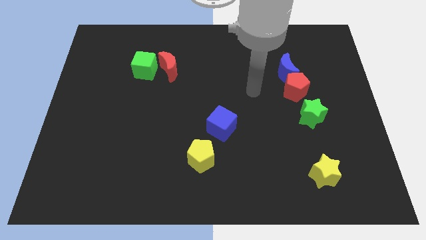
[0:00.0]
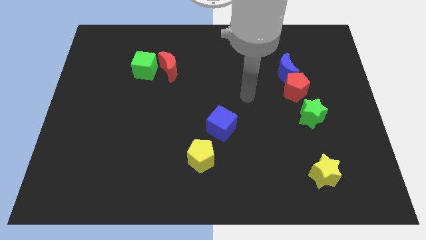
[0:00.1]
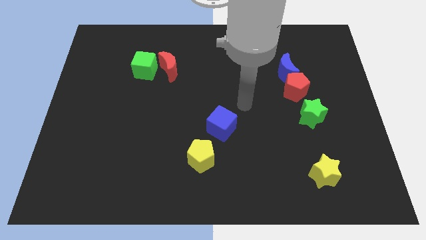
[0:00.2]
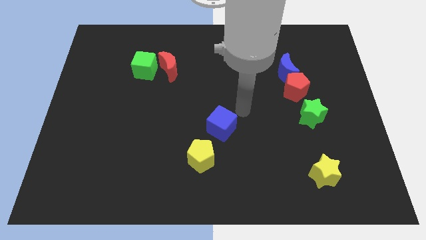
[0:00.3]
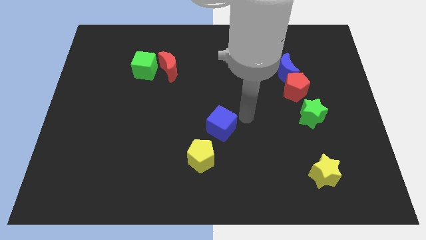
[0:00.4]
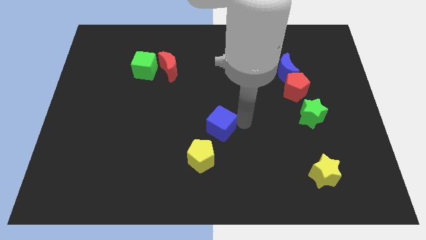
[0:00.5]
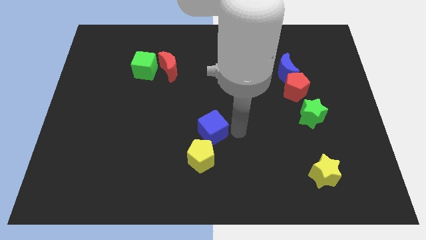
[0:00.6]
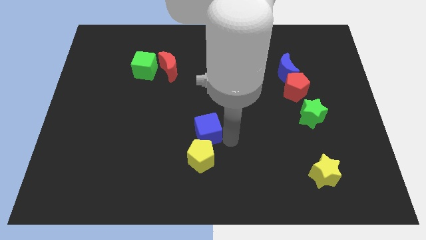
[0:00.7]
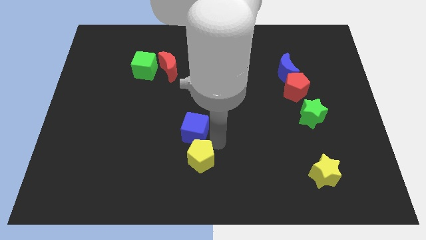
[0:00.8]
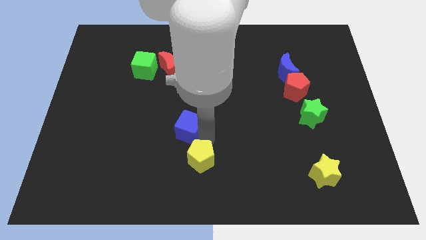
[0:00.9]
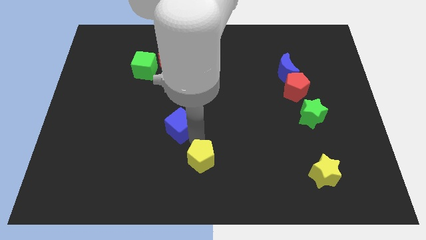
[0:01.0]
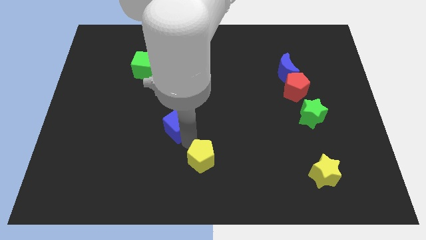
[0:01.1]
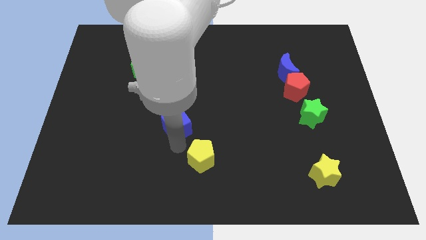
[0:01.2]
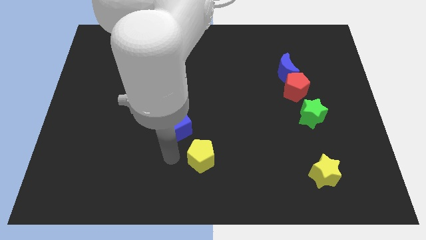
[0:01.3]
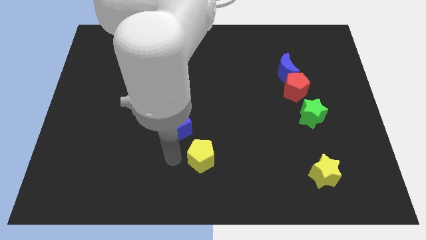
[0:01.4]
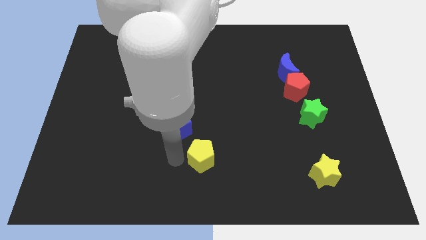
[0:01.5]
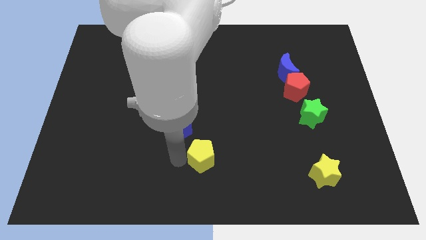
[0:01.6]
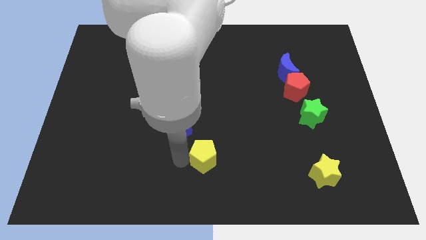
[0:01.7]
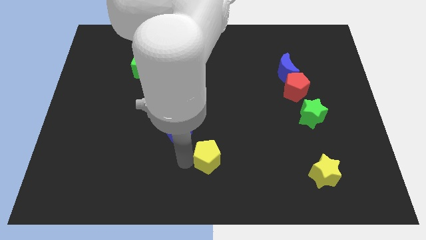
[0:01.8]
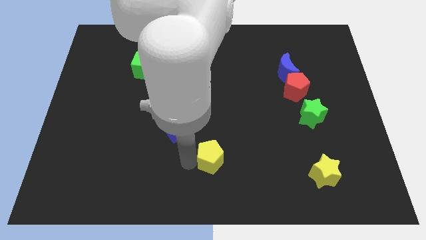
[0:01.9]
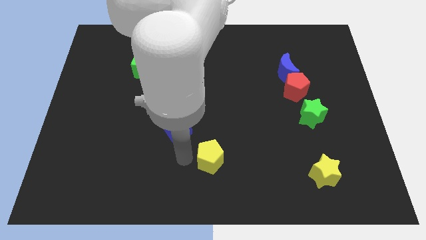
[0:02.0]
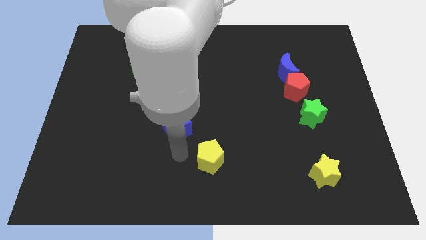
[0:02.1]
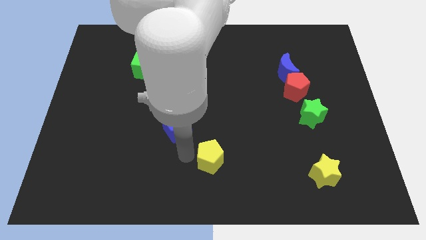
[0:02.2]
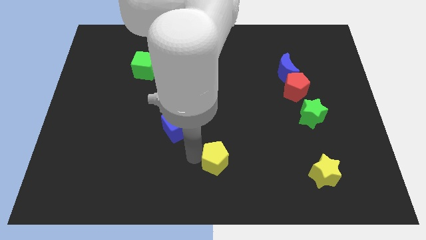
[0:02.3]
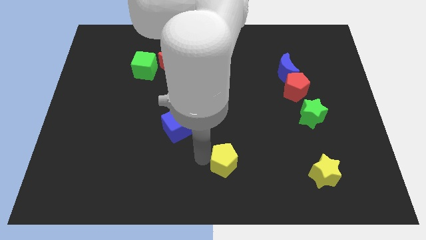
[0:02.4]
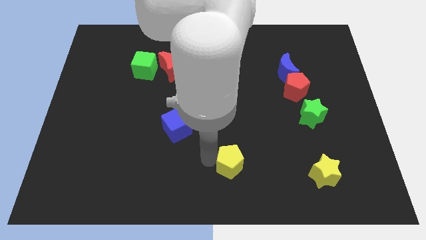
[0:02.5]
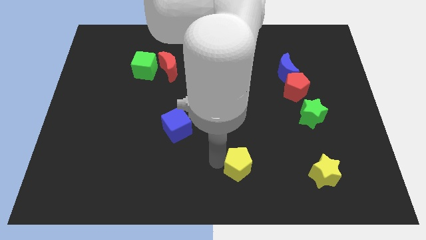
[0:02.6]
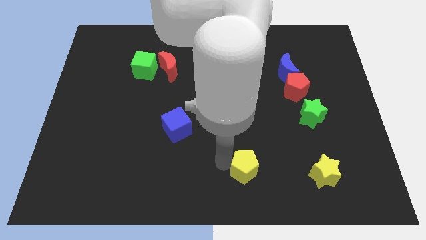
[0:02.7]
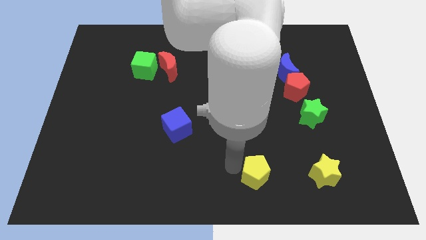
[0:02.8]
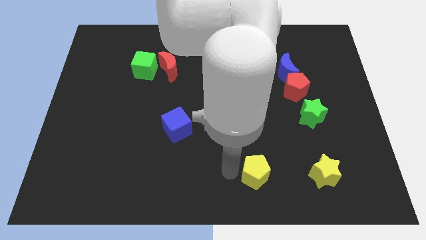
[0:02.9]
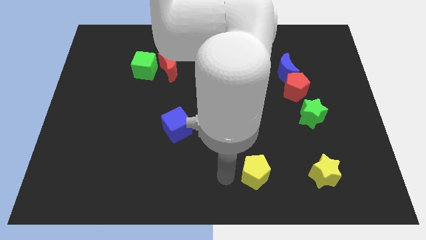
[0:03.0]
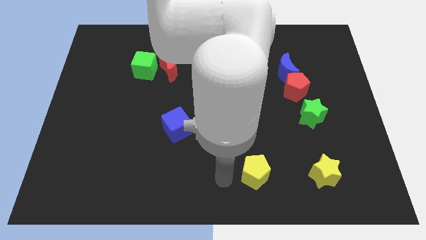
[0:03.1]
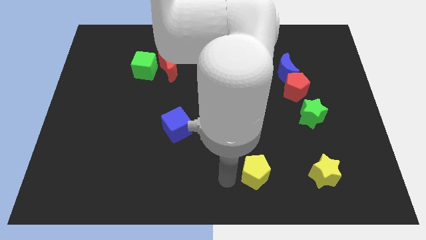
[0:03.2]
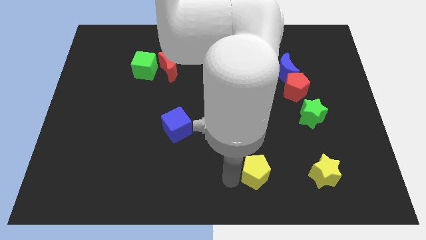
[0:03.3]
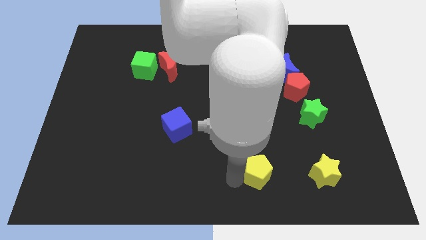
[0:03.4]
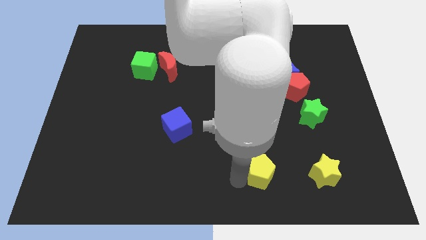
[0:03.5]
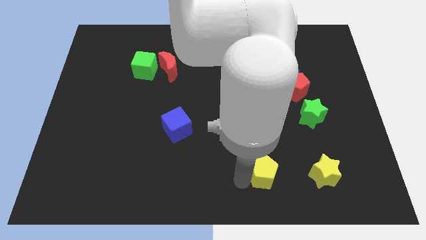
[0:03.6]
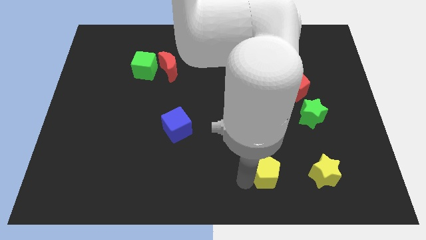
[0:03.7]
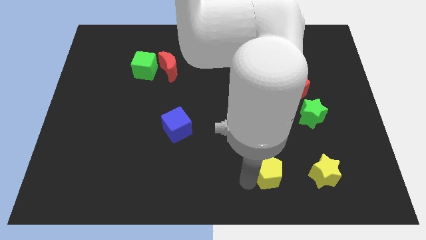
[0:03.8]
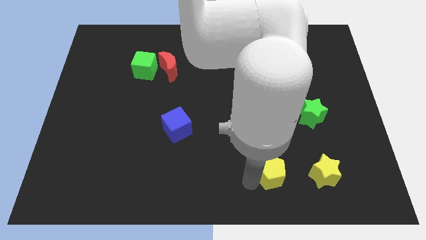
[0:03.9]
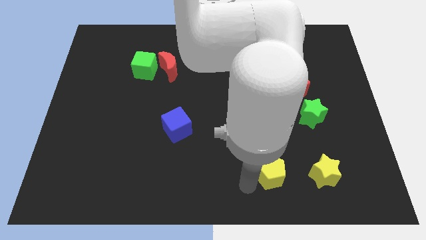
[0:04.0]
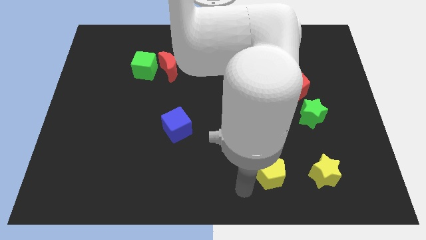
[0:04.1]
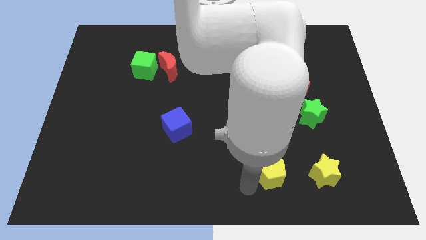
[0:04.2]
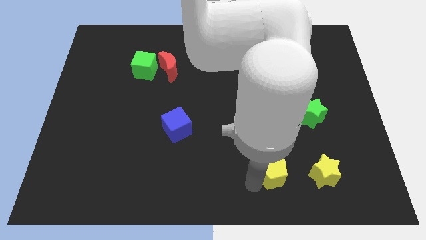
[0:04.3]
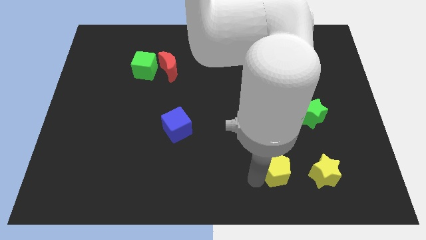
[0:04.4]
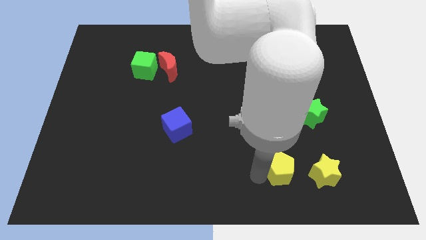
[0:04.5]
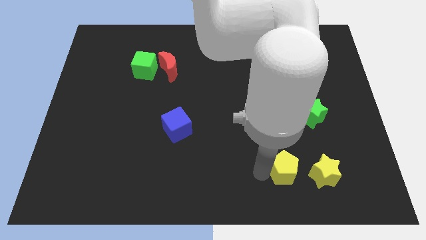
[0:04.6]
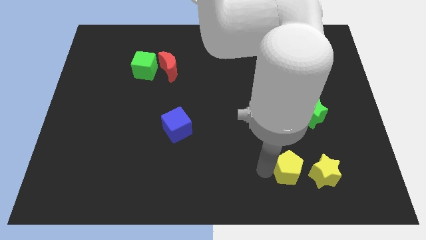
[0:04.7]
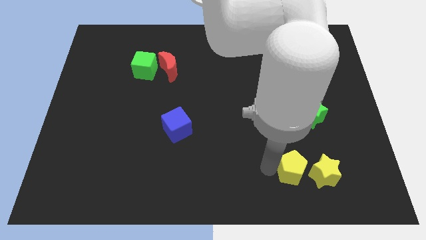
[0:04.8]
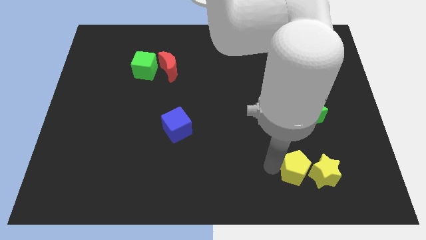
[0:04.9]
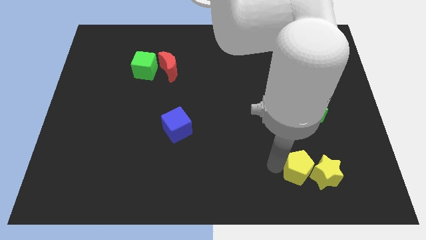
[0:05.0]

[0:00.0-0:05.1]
slide the yellow pentagon towards the yellow star

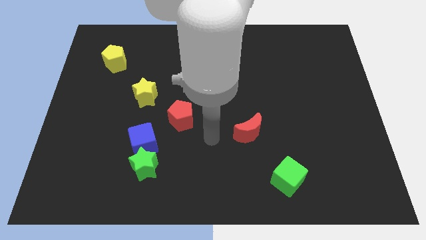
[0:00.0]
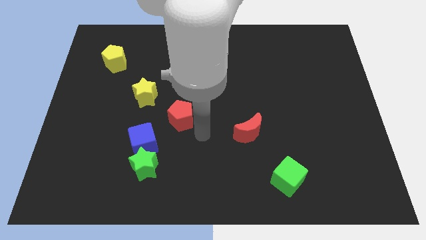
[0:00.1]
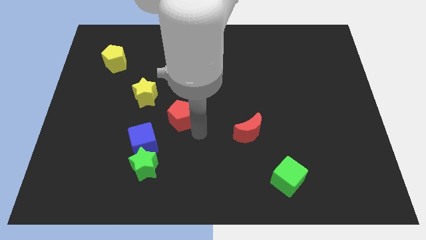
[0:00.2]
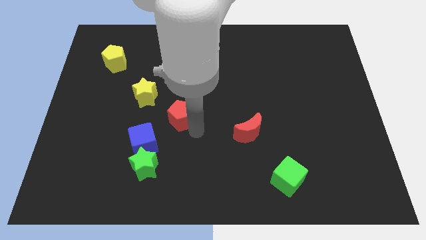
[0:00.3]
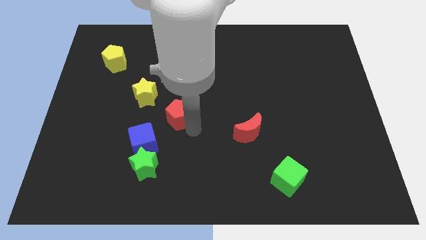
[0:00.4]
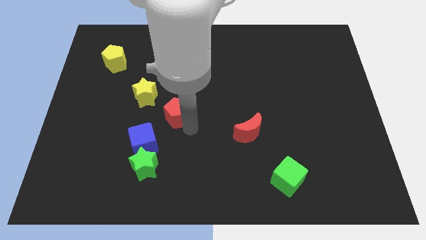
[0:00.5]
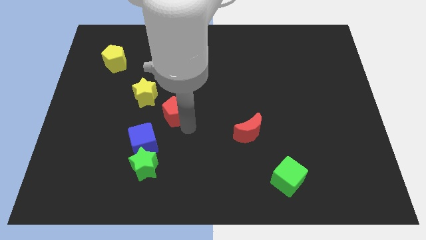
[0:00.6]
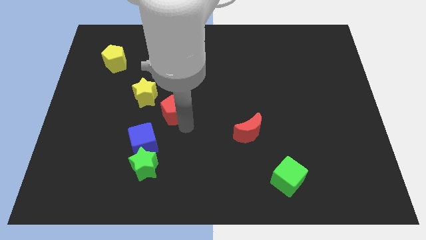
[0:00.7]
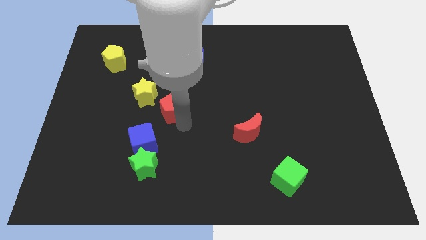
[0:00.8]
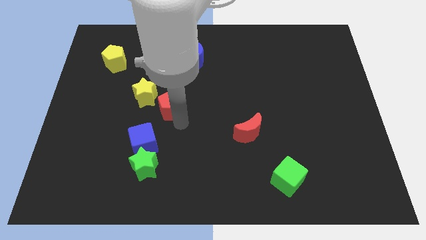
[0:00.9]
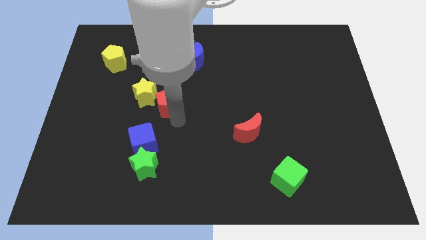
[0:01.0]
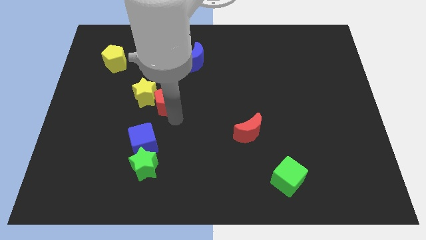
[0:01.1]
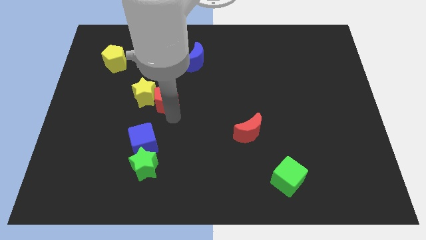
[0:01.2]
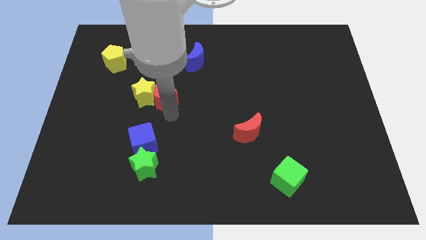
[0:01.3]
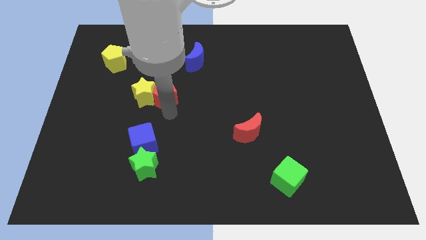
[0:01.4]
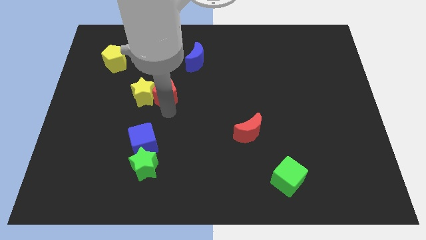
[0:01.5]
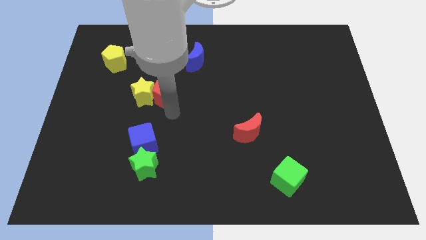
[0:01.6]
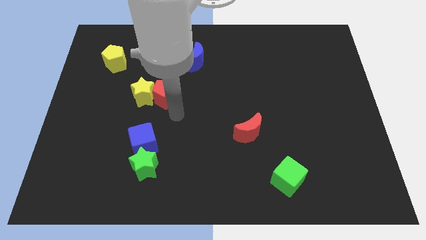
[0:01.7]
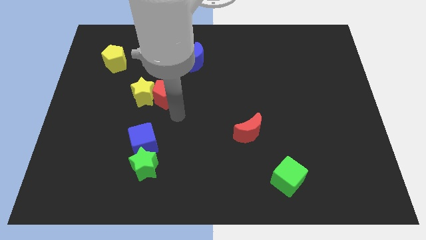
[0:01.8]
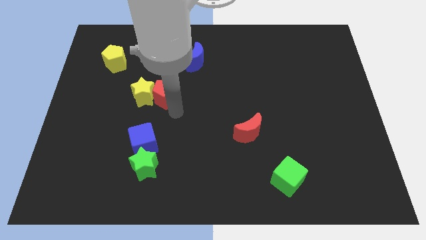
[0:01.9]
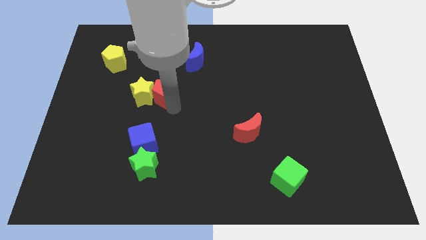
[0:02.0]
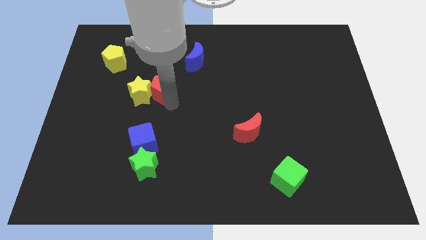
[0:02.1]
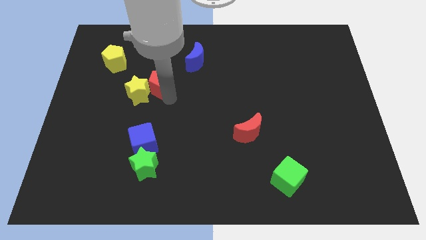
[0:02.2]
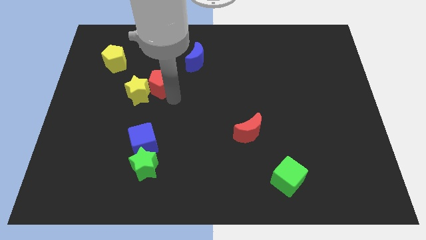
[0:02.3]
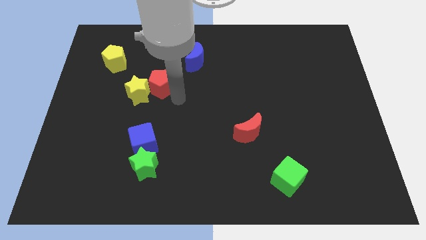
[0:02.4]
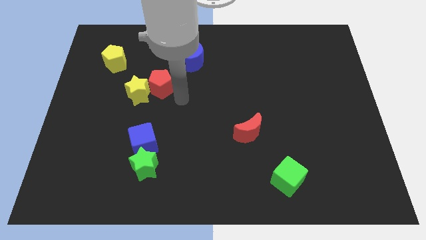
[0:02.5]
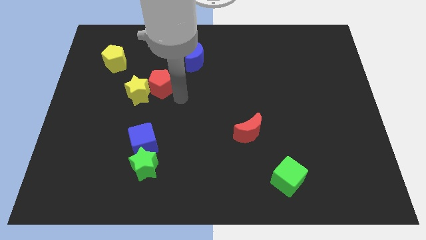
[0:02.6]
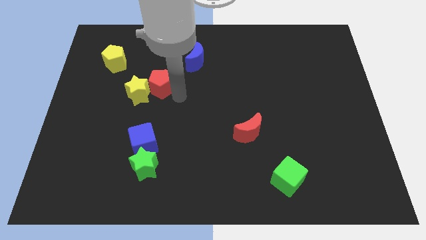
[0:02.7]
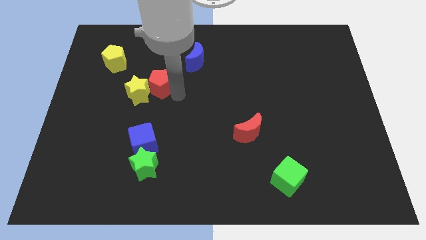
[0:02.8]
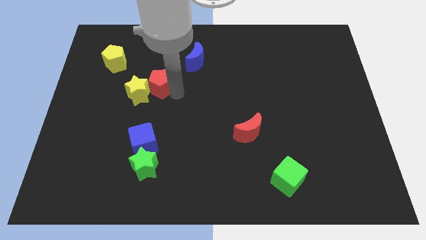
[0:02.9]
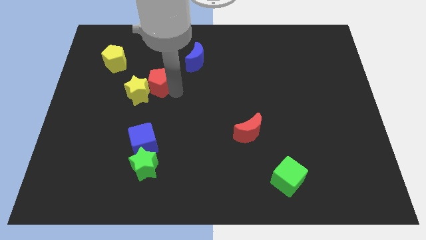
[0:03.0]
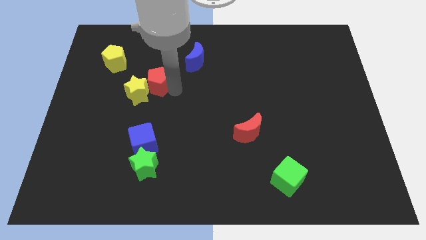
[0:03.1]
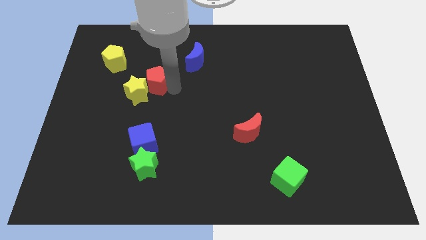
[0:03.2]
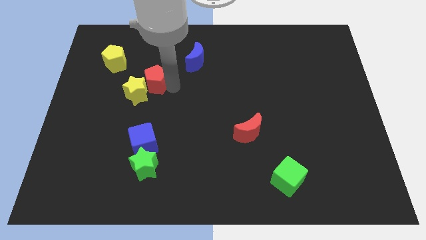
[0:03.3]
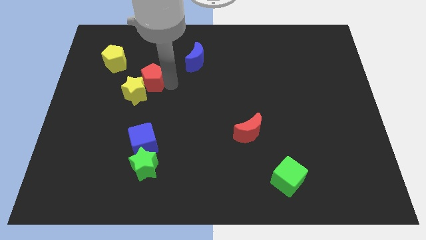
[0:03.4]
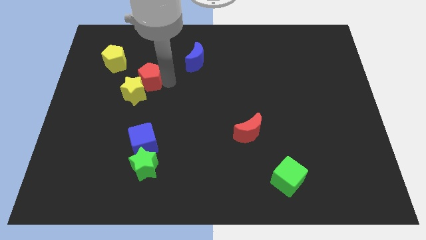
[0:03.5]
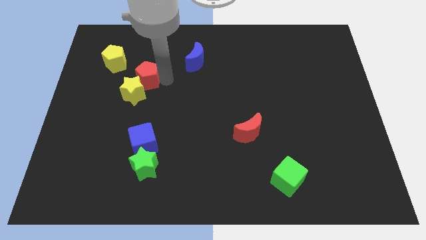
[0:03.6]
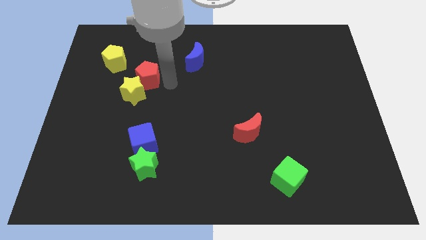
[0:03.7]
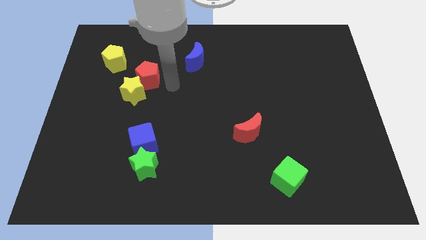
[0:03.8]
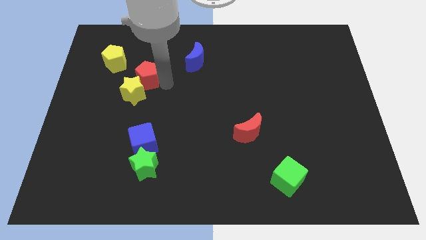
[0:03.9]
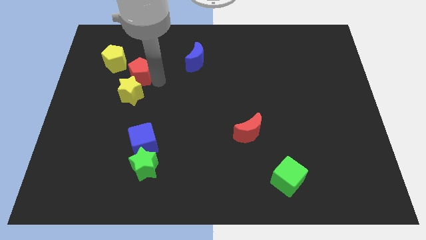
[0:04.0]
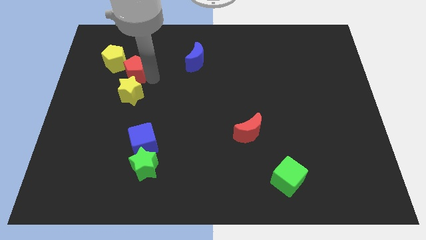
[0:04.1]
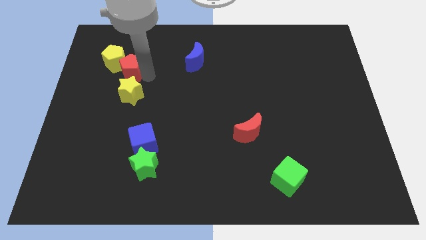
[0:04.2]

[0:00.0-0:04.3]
put the red pentagon close to the yellow pentagon
